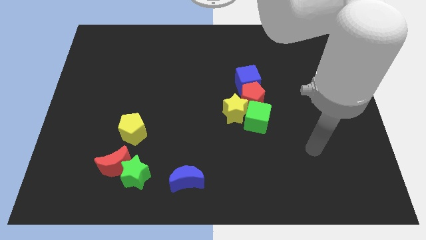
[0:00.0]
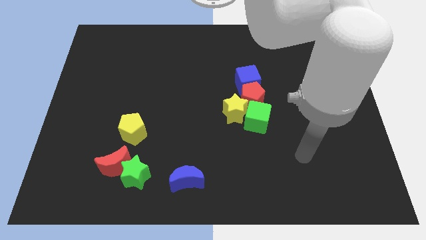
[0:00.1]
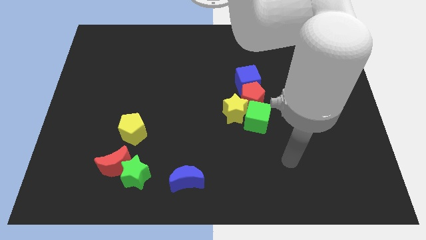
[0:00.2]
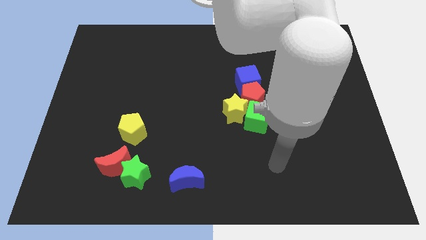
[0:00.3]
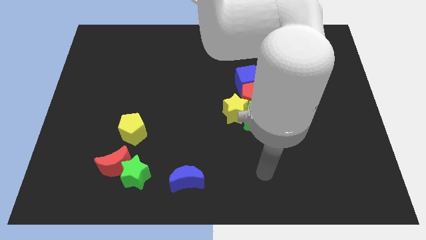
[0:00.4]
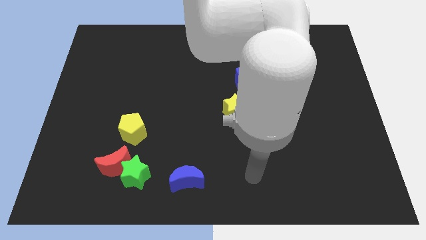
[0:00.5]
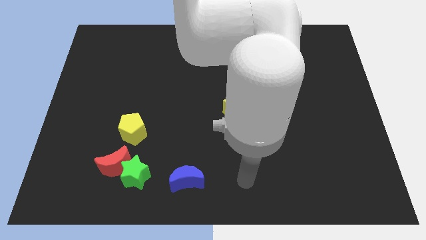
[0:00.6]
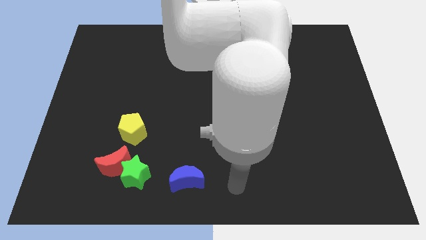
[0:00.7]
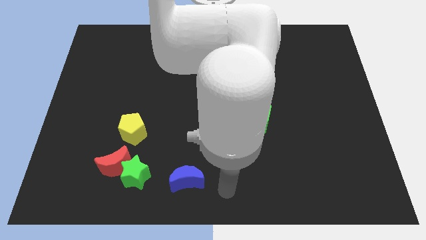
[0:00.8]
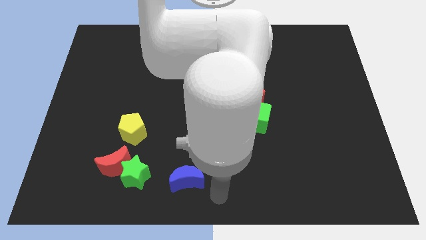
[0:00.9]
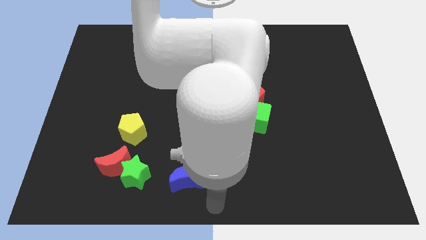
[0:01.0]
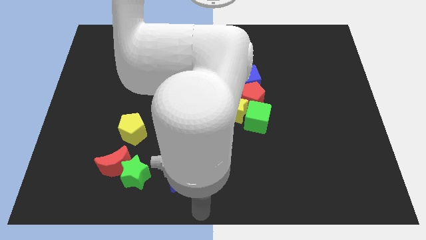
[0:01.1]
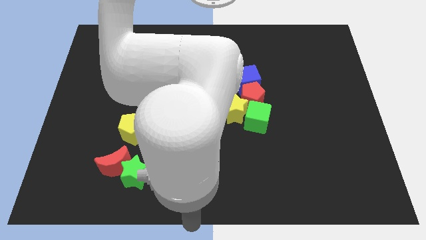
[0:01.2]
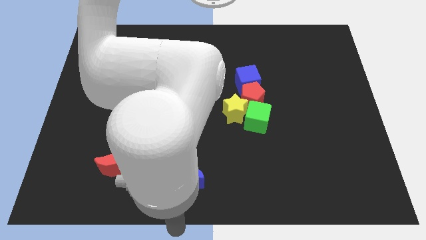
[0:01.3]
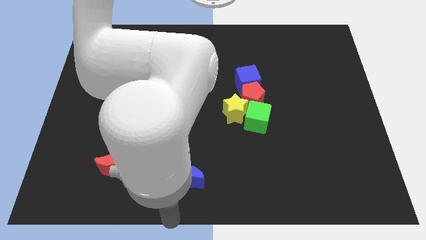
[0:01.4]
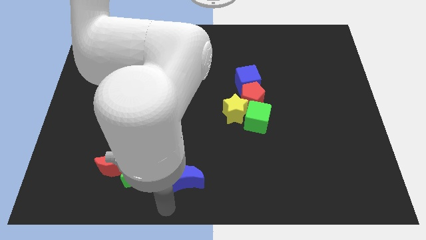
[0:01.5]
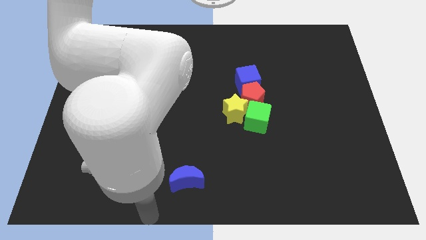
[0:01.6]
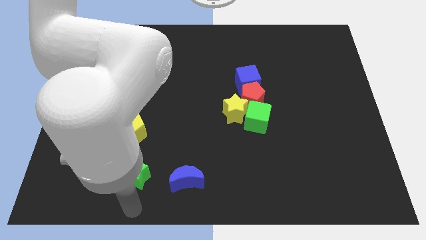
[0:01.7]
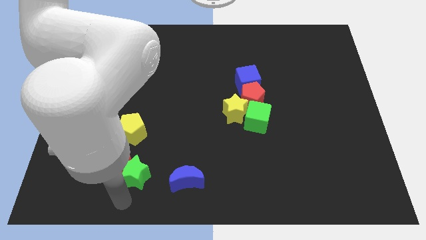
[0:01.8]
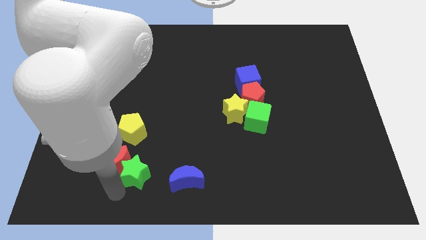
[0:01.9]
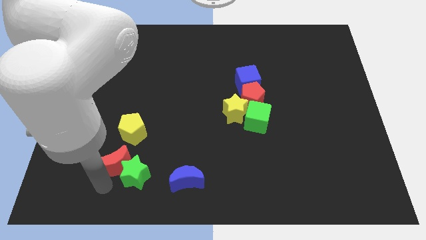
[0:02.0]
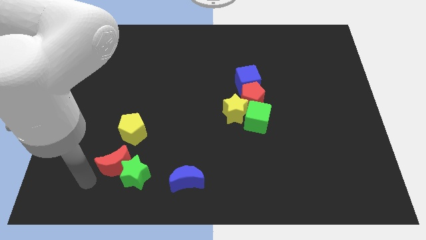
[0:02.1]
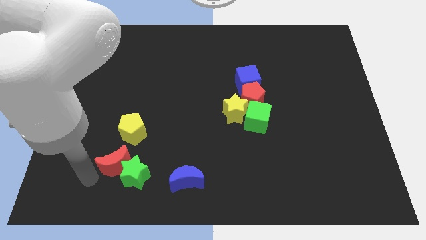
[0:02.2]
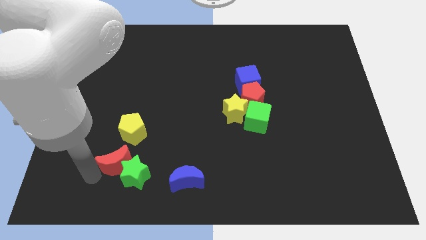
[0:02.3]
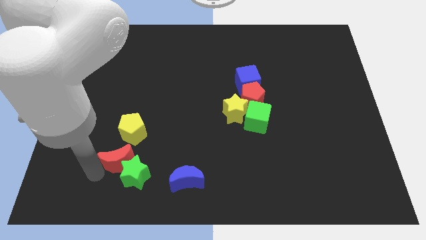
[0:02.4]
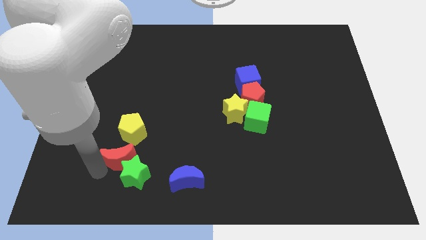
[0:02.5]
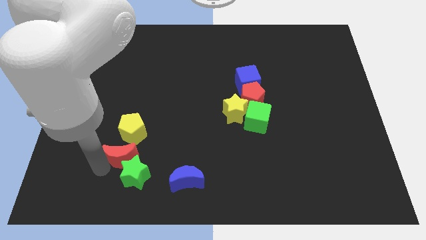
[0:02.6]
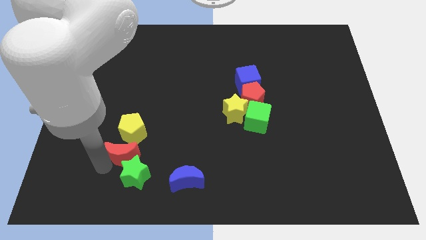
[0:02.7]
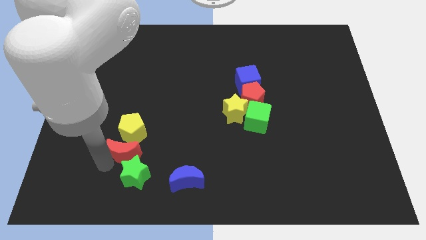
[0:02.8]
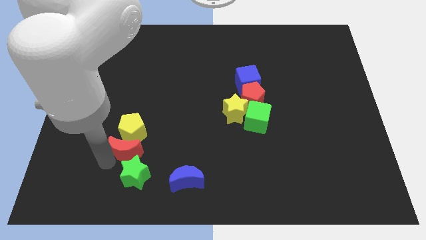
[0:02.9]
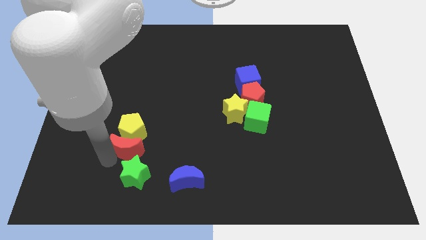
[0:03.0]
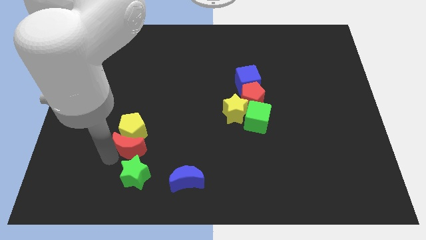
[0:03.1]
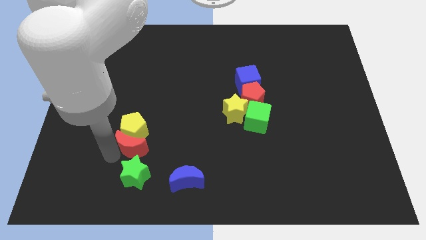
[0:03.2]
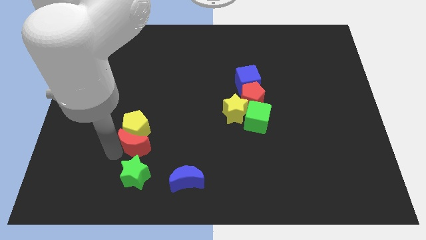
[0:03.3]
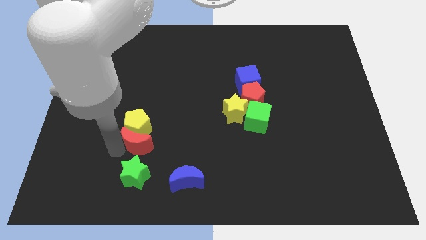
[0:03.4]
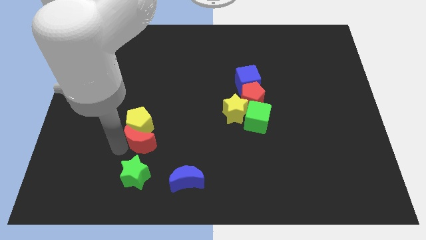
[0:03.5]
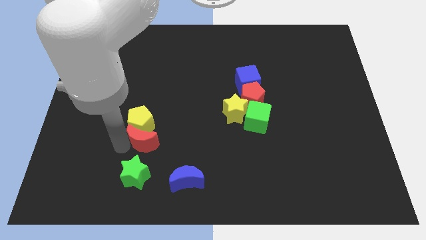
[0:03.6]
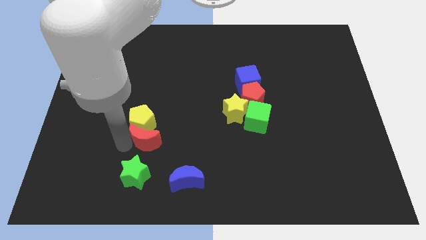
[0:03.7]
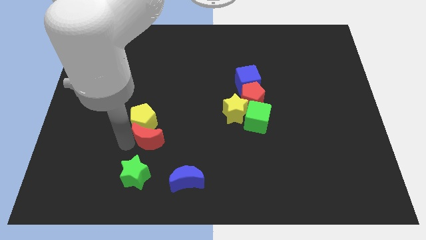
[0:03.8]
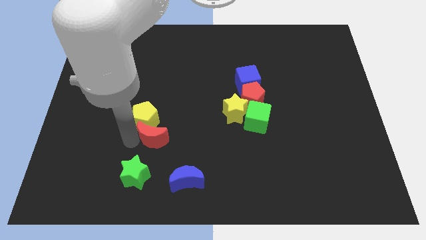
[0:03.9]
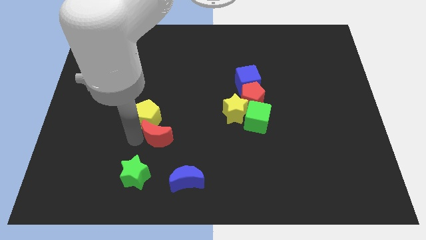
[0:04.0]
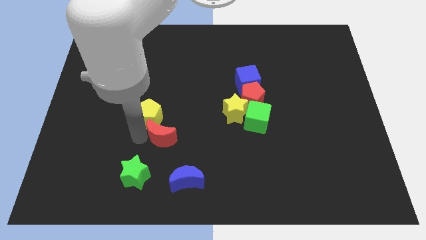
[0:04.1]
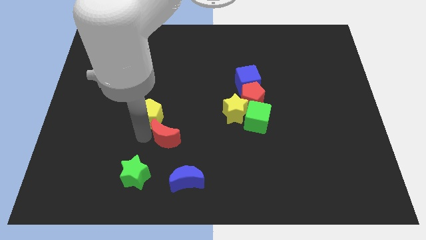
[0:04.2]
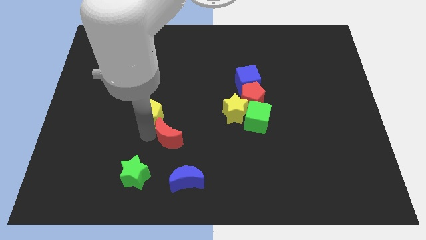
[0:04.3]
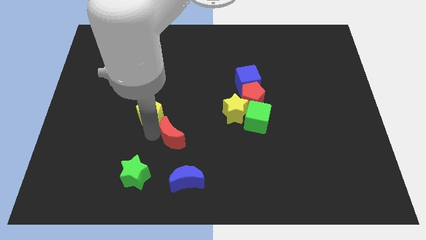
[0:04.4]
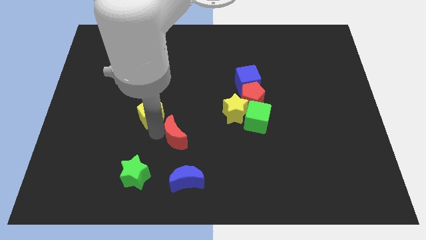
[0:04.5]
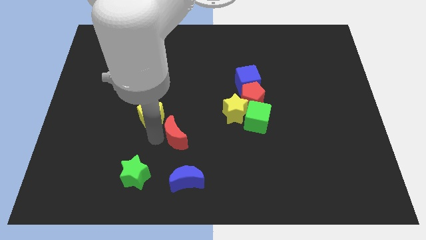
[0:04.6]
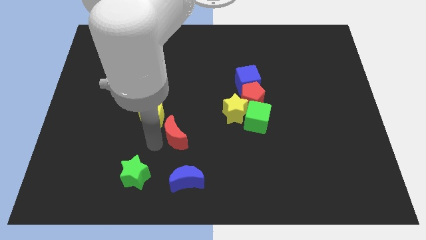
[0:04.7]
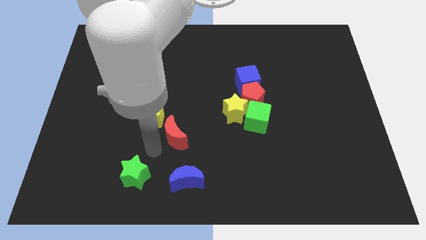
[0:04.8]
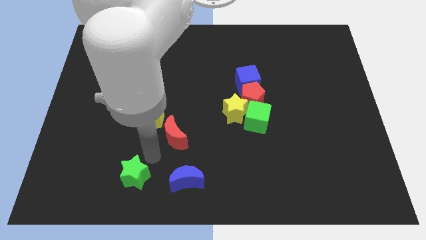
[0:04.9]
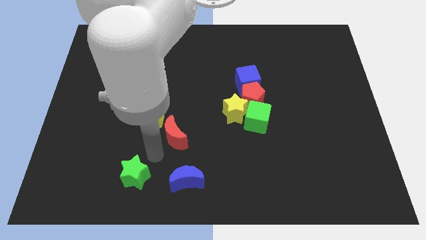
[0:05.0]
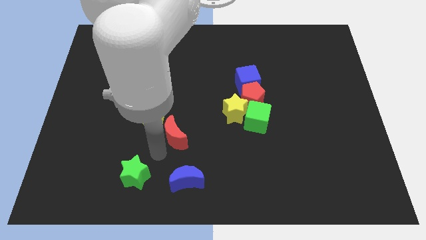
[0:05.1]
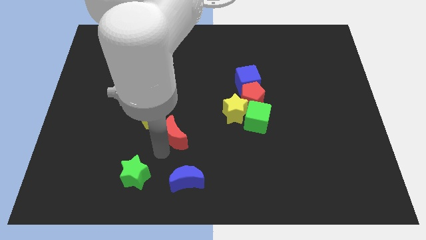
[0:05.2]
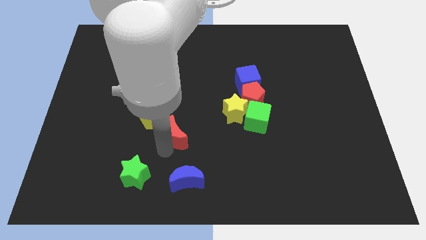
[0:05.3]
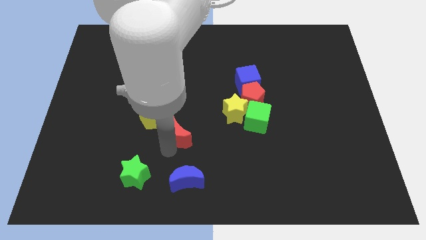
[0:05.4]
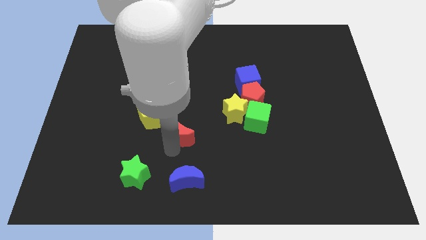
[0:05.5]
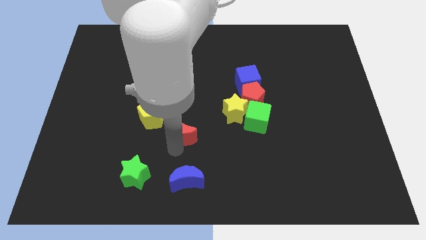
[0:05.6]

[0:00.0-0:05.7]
slide the red moon to the right side of the yellow pentagon
